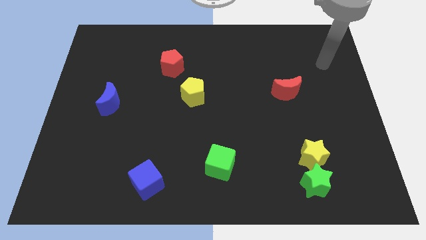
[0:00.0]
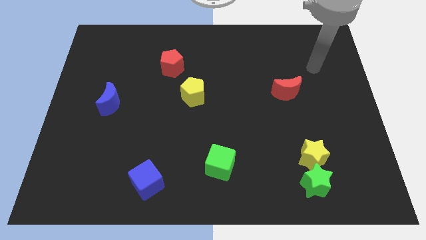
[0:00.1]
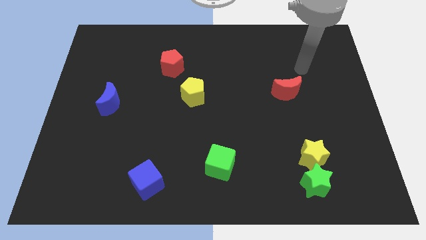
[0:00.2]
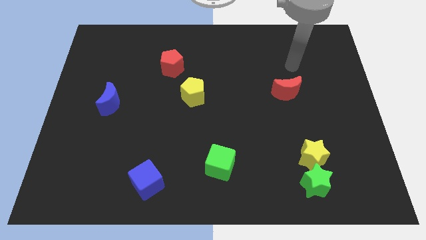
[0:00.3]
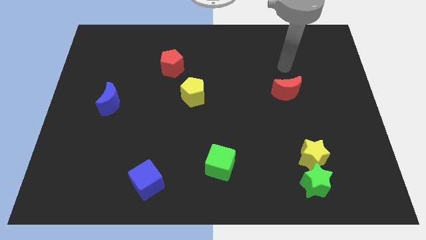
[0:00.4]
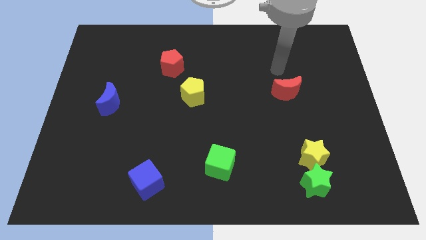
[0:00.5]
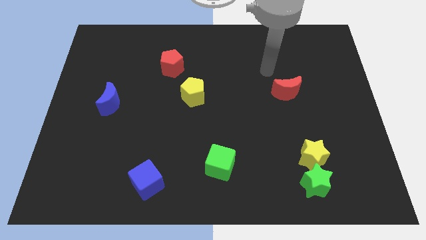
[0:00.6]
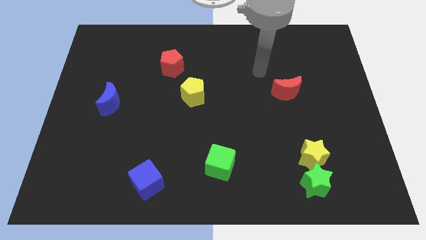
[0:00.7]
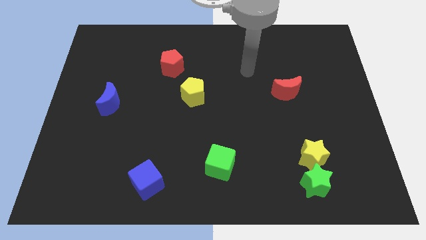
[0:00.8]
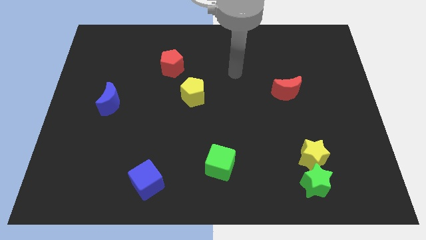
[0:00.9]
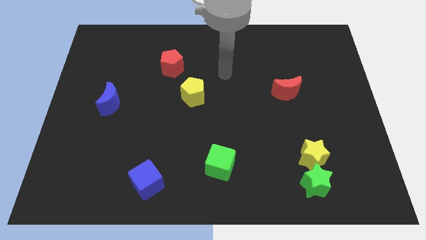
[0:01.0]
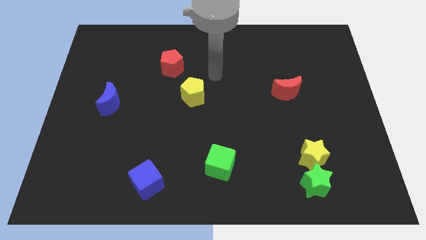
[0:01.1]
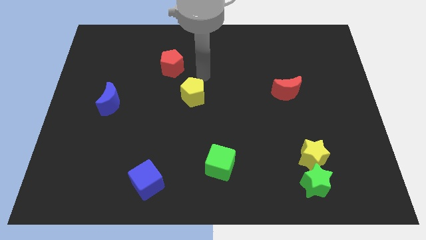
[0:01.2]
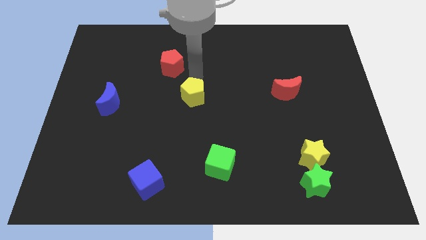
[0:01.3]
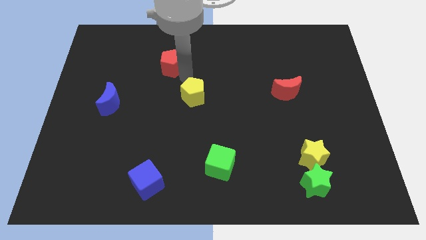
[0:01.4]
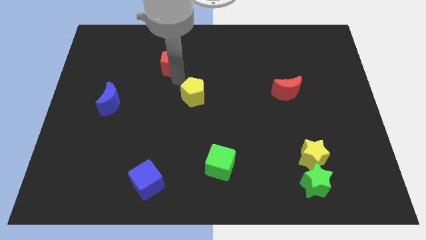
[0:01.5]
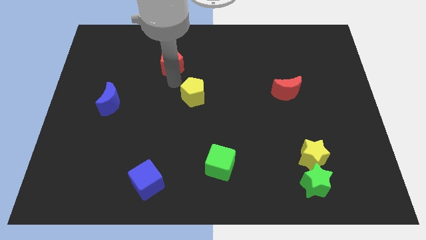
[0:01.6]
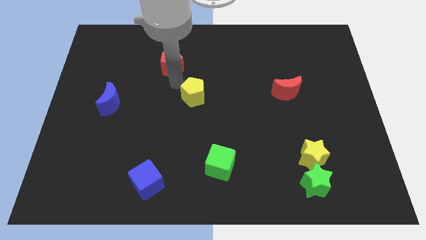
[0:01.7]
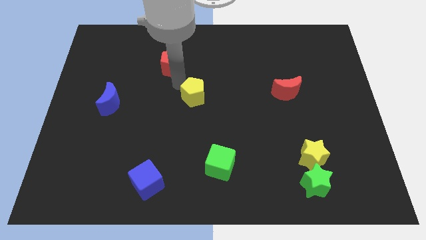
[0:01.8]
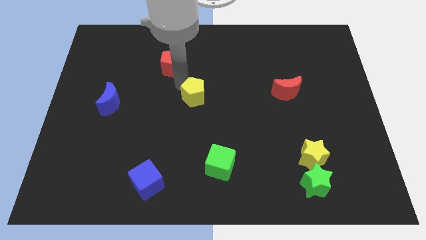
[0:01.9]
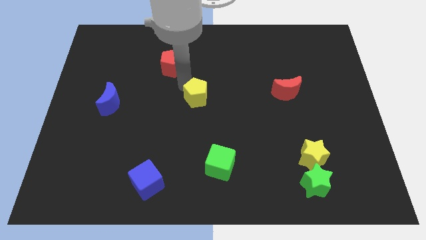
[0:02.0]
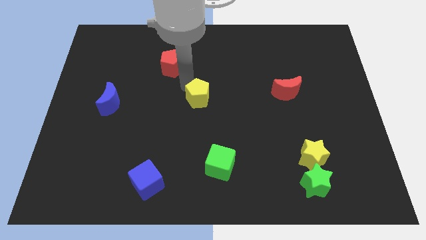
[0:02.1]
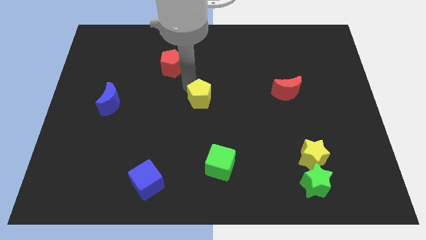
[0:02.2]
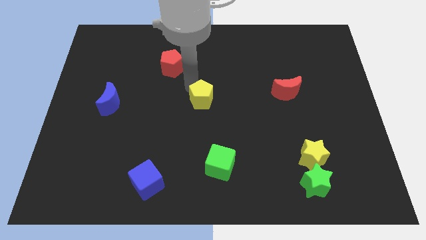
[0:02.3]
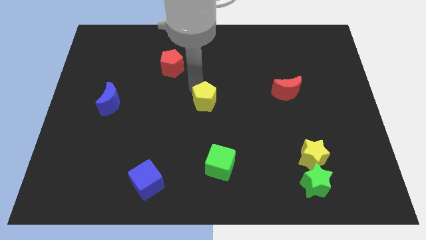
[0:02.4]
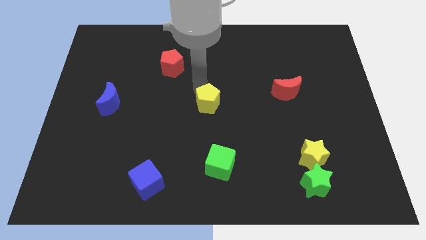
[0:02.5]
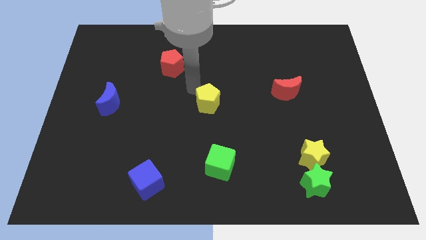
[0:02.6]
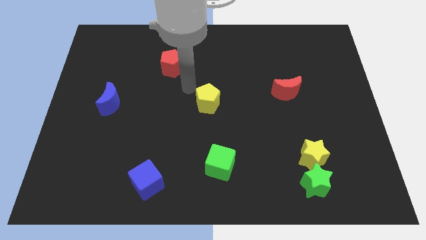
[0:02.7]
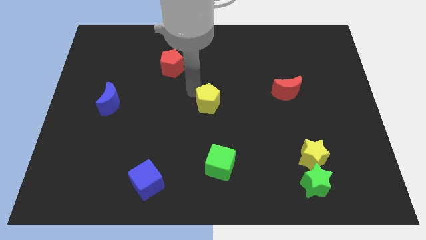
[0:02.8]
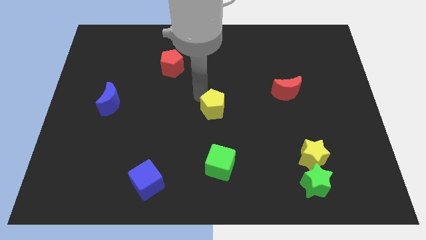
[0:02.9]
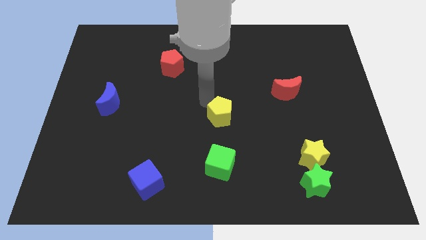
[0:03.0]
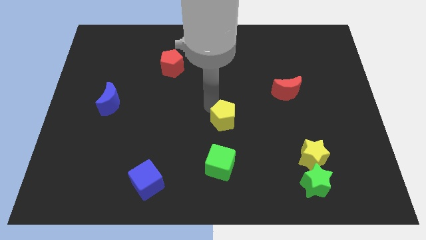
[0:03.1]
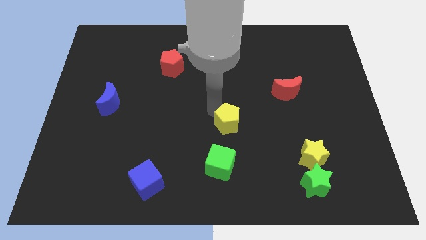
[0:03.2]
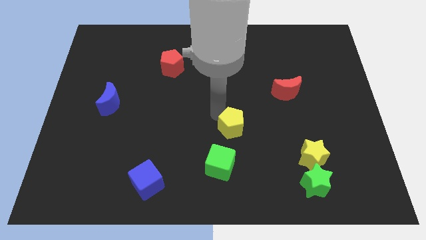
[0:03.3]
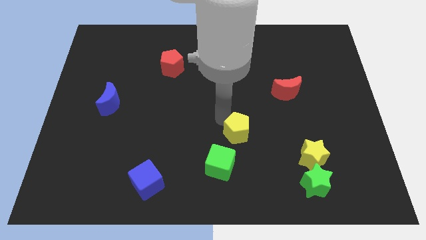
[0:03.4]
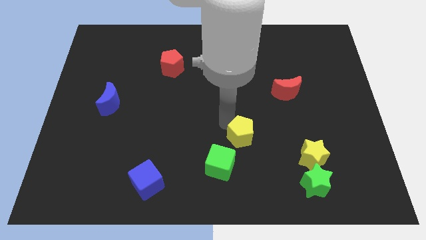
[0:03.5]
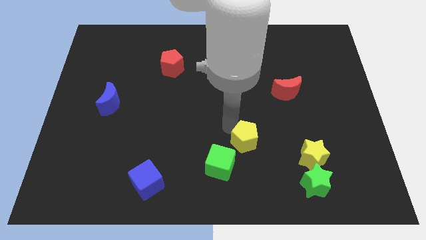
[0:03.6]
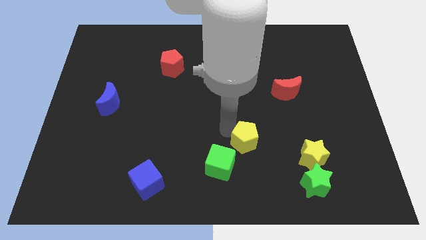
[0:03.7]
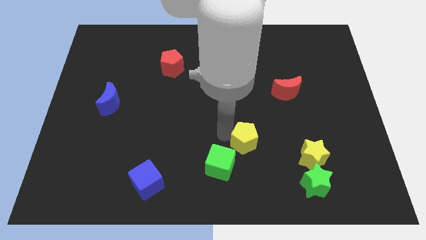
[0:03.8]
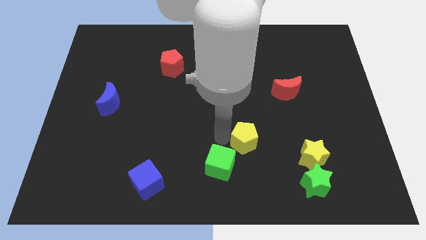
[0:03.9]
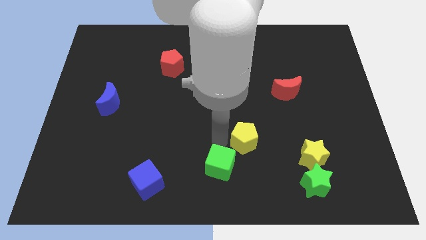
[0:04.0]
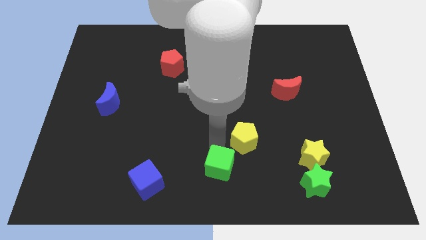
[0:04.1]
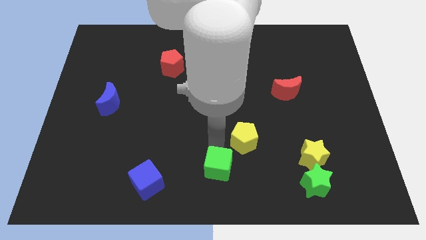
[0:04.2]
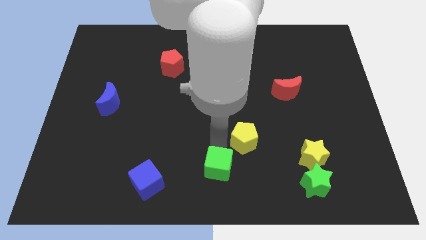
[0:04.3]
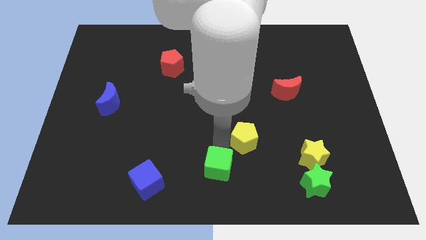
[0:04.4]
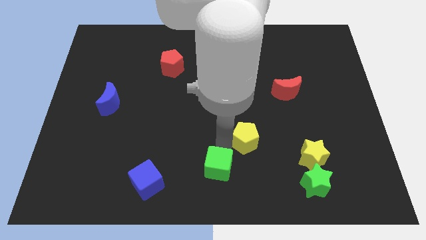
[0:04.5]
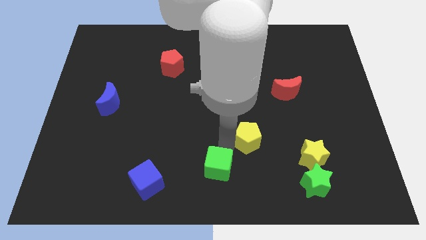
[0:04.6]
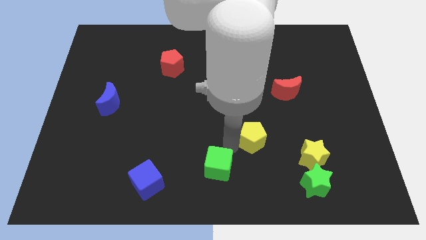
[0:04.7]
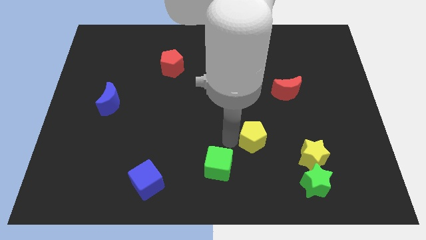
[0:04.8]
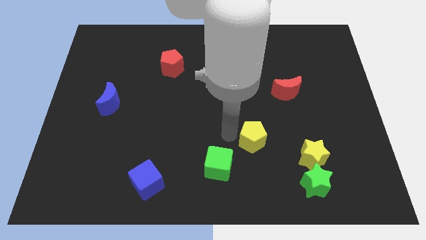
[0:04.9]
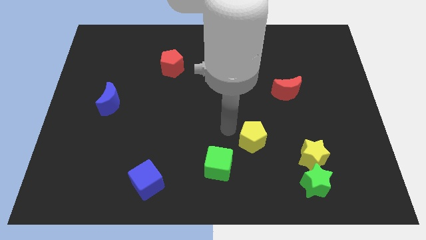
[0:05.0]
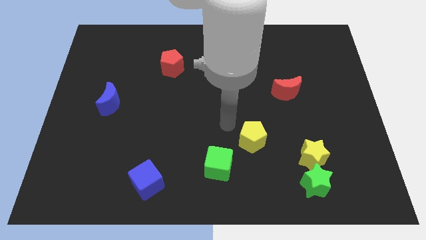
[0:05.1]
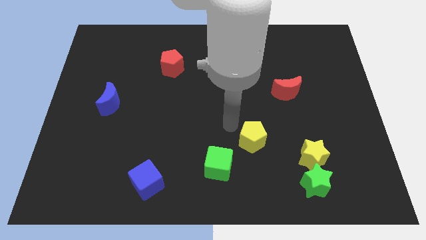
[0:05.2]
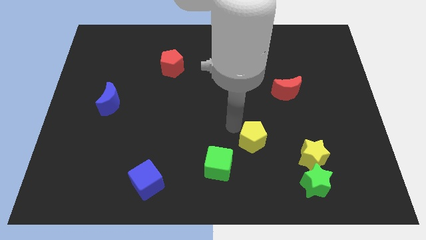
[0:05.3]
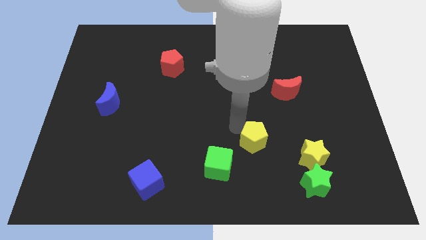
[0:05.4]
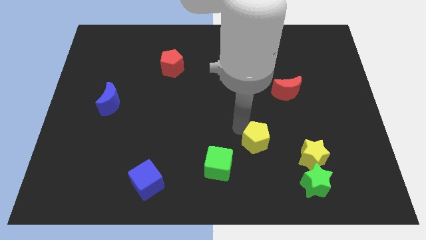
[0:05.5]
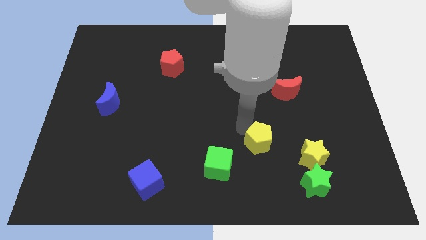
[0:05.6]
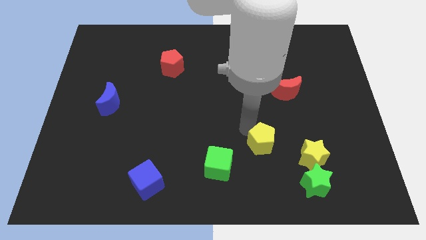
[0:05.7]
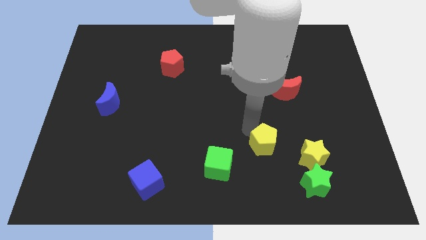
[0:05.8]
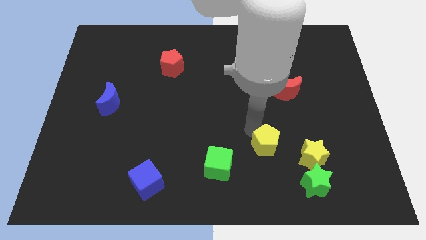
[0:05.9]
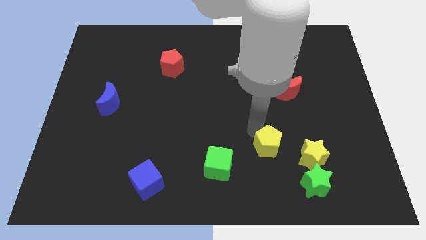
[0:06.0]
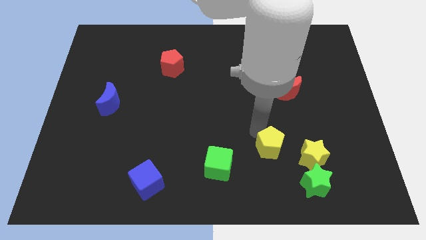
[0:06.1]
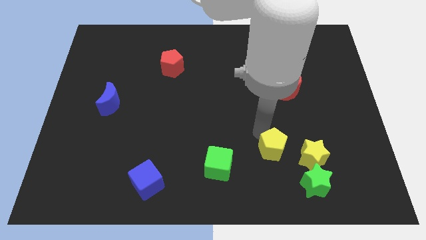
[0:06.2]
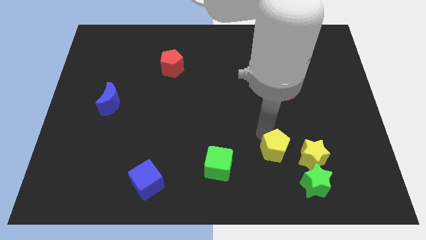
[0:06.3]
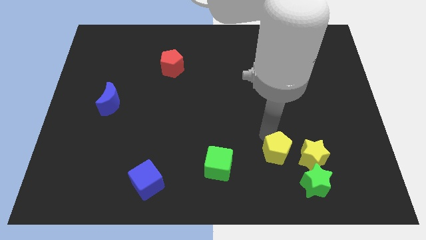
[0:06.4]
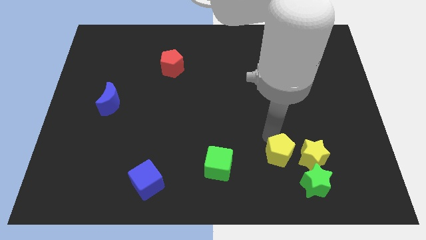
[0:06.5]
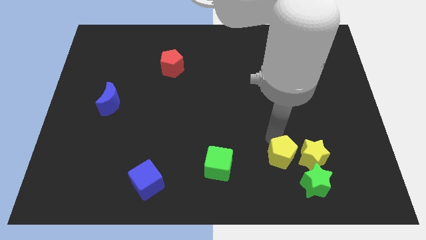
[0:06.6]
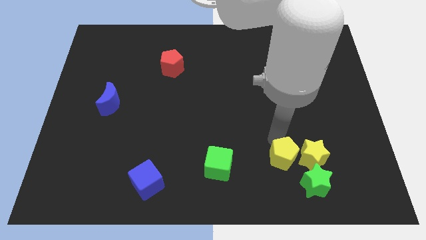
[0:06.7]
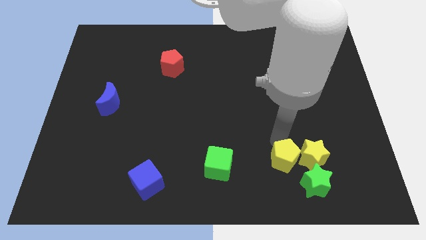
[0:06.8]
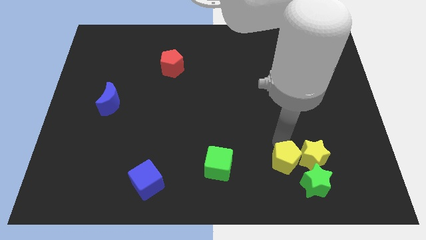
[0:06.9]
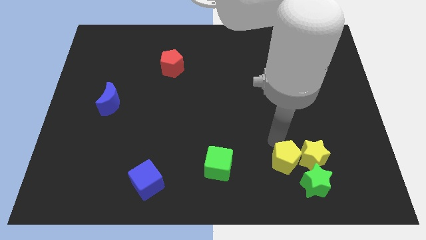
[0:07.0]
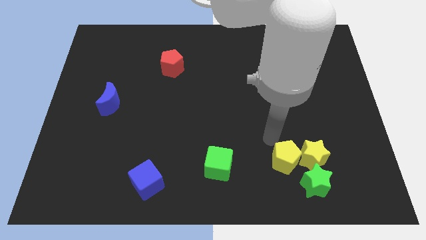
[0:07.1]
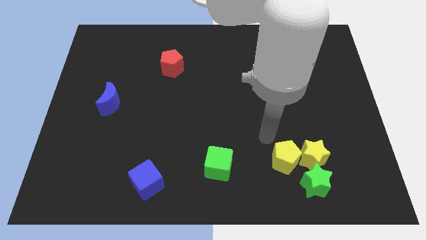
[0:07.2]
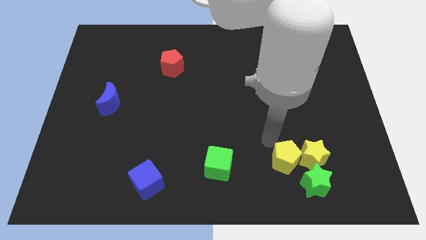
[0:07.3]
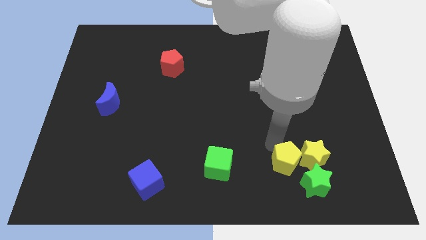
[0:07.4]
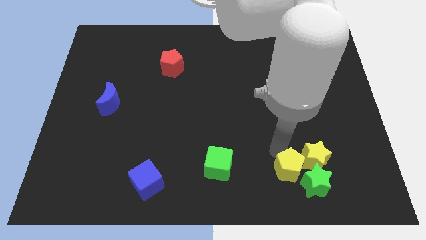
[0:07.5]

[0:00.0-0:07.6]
push the yellow pentagon close to the green star
